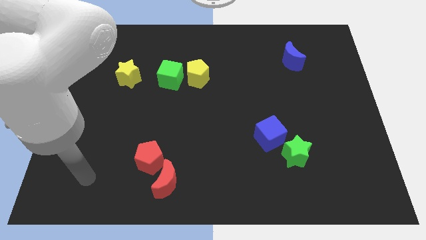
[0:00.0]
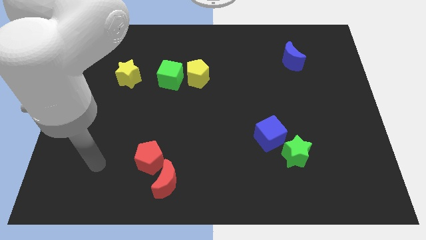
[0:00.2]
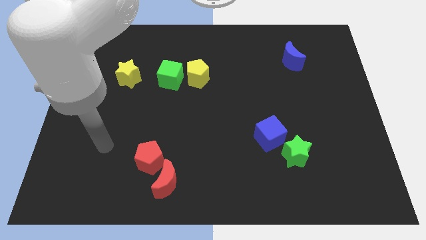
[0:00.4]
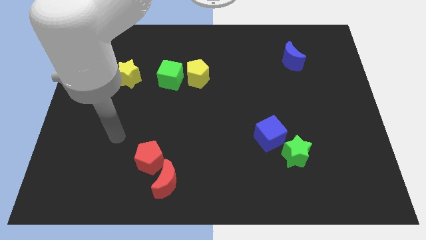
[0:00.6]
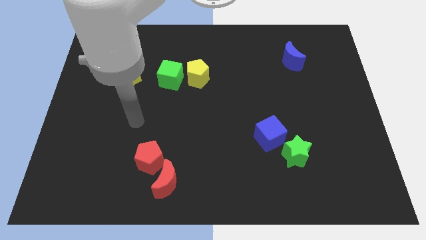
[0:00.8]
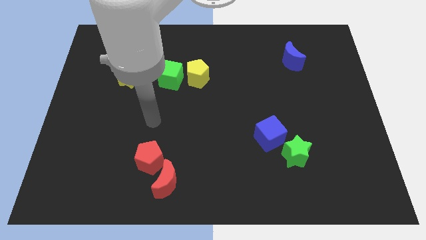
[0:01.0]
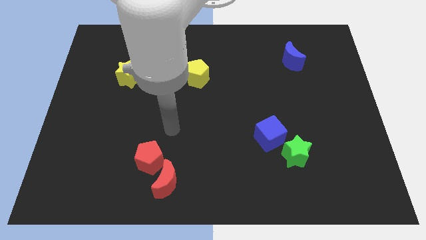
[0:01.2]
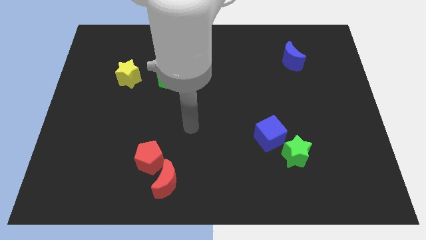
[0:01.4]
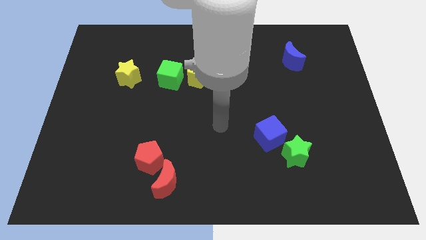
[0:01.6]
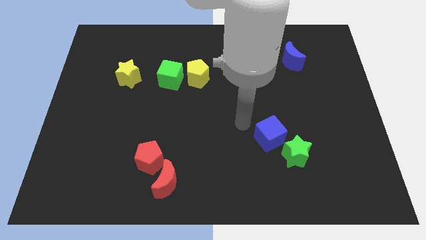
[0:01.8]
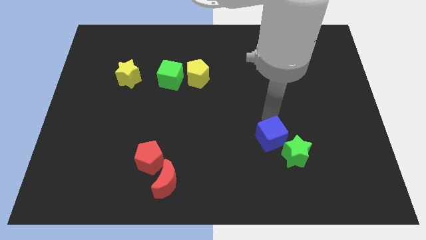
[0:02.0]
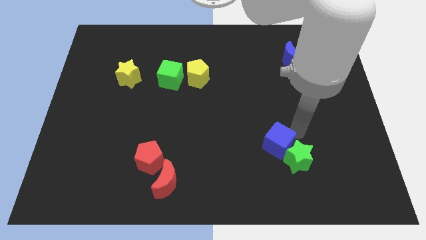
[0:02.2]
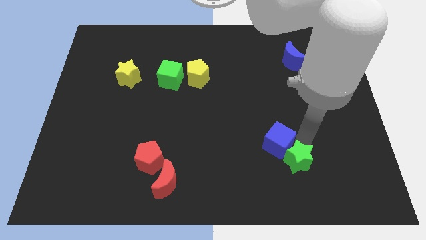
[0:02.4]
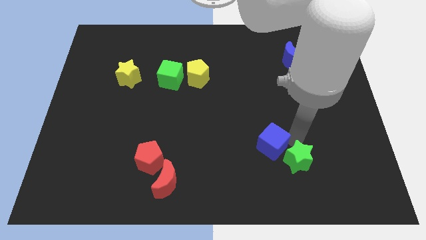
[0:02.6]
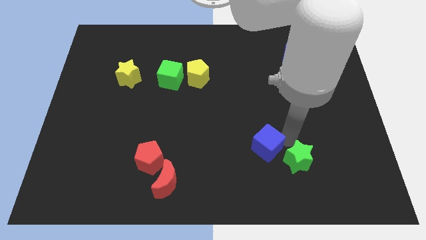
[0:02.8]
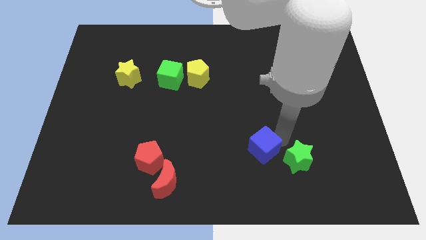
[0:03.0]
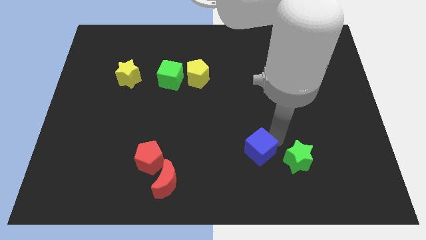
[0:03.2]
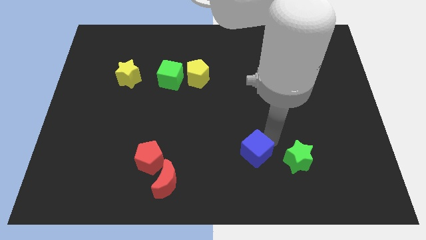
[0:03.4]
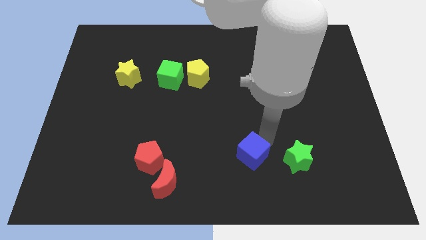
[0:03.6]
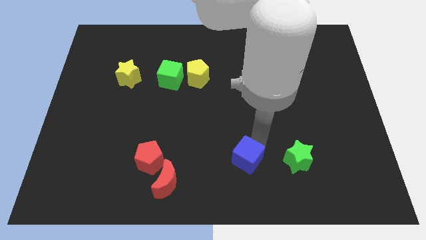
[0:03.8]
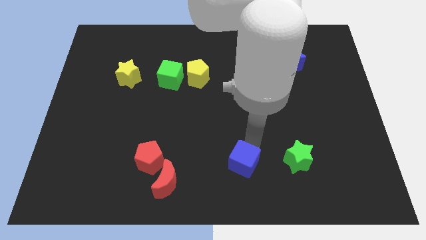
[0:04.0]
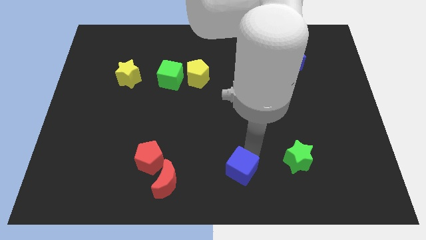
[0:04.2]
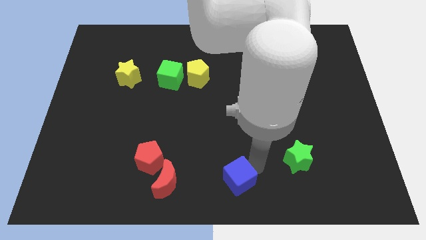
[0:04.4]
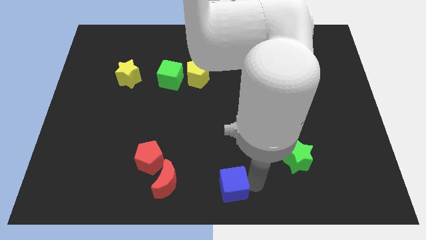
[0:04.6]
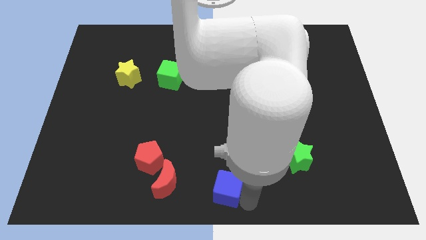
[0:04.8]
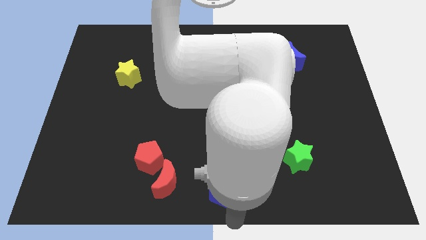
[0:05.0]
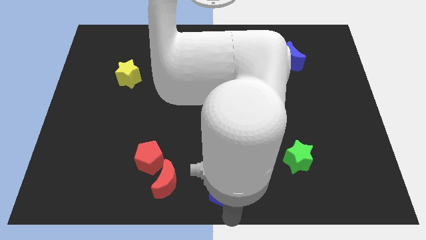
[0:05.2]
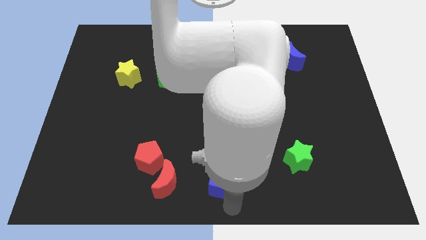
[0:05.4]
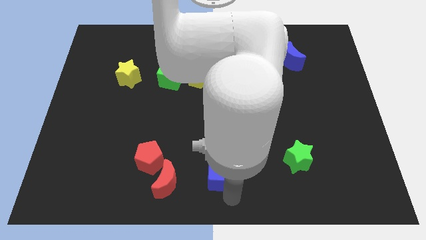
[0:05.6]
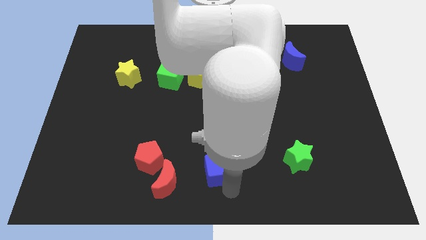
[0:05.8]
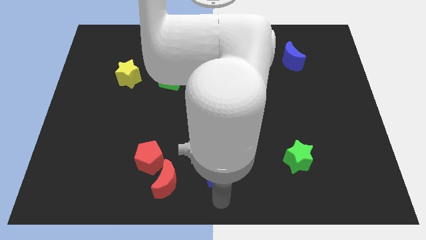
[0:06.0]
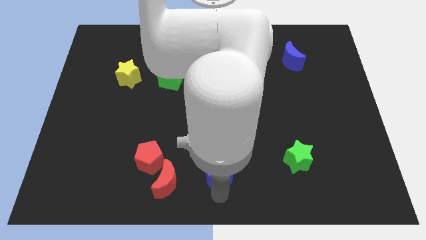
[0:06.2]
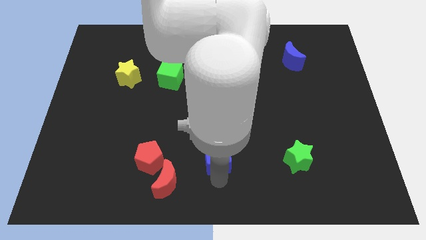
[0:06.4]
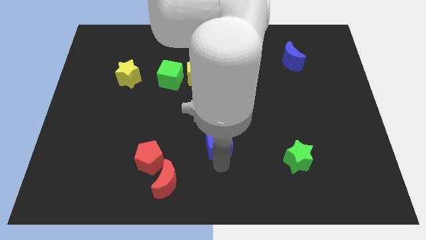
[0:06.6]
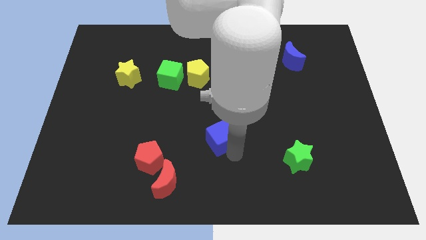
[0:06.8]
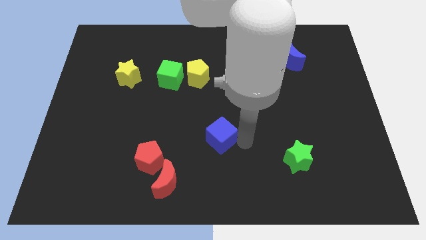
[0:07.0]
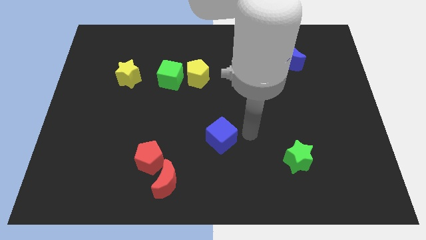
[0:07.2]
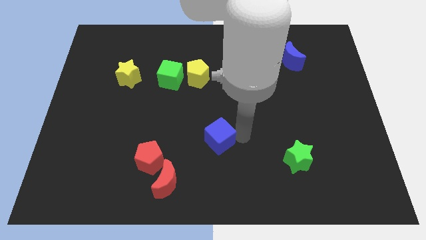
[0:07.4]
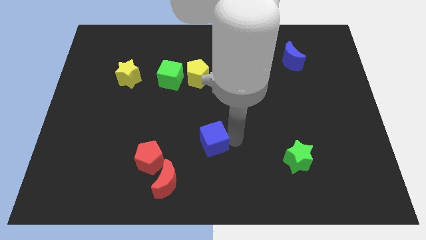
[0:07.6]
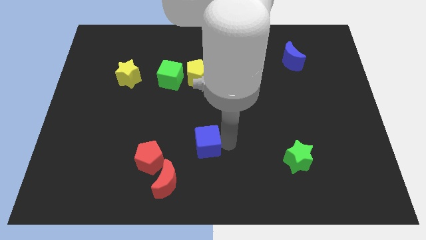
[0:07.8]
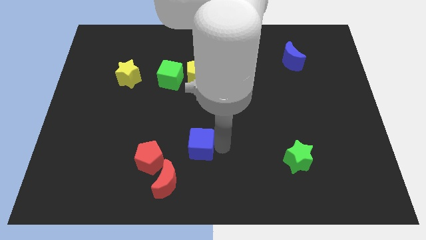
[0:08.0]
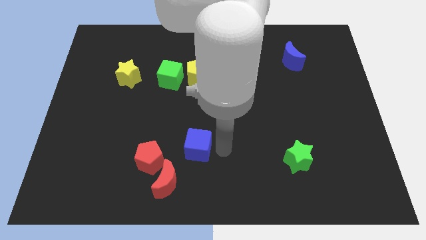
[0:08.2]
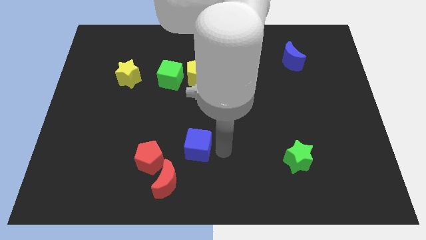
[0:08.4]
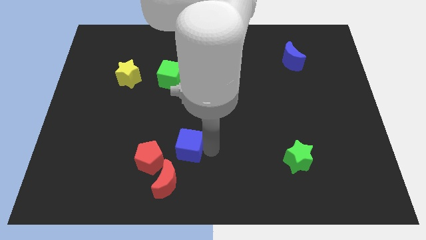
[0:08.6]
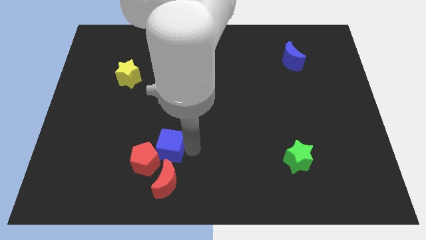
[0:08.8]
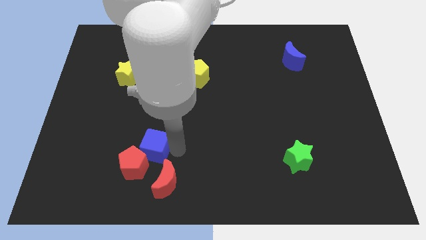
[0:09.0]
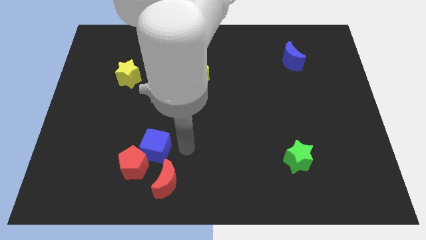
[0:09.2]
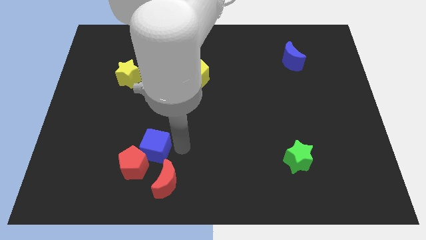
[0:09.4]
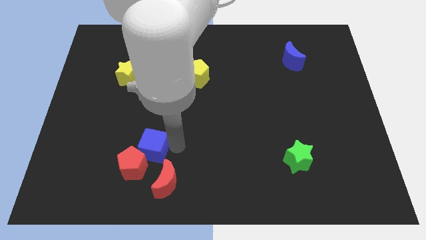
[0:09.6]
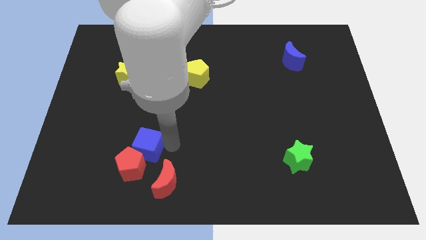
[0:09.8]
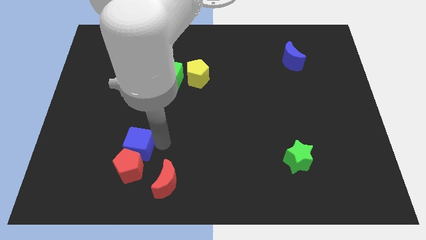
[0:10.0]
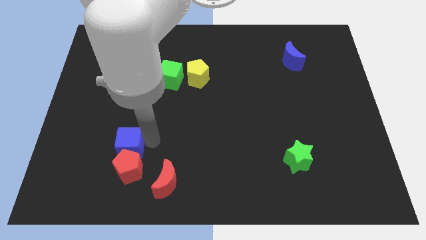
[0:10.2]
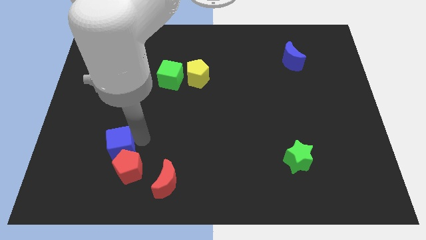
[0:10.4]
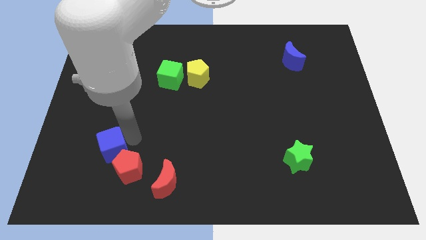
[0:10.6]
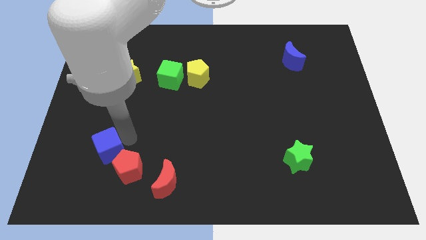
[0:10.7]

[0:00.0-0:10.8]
put the blue cube just left of the red pentagon

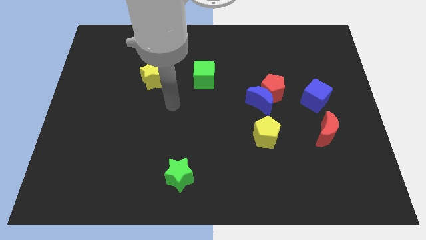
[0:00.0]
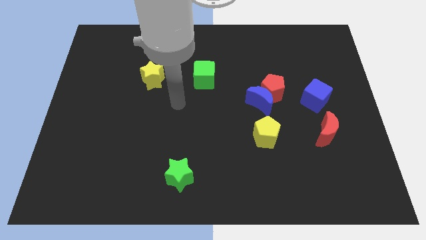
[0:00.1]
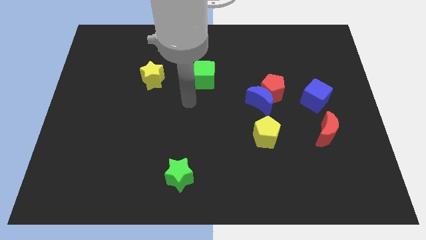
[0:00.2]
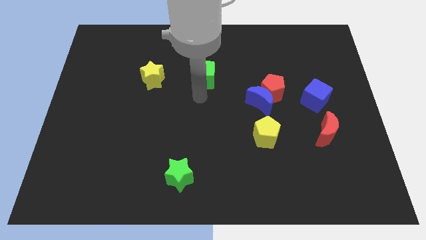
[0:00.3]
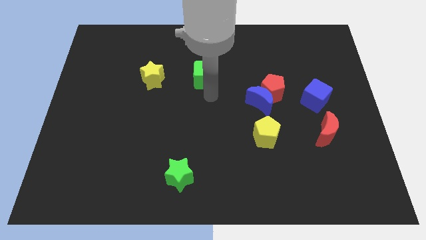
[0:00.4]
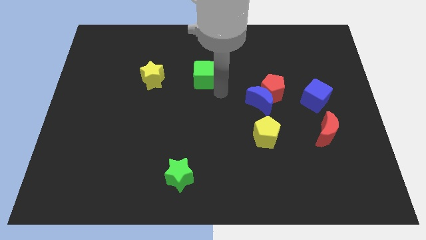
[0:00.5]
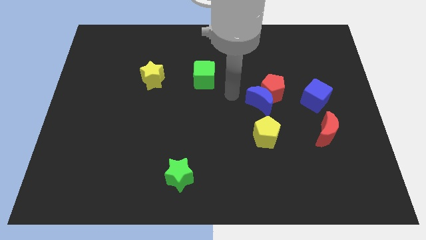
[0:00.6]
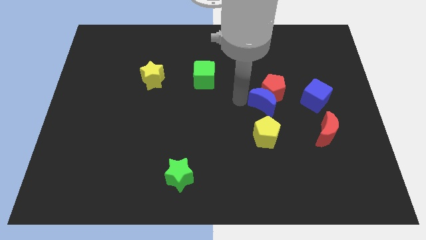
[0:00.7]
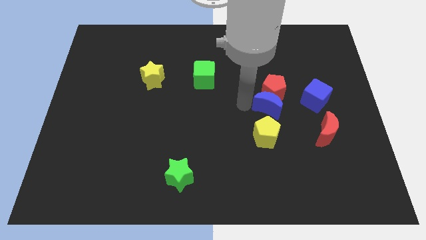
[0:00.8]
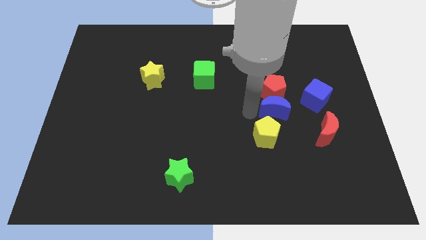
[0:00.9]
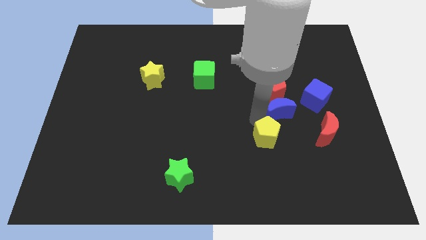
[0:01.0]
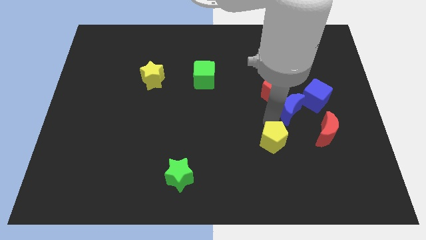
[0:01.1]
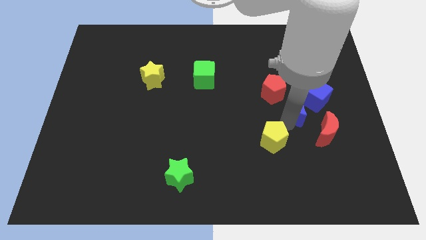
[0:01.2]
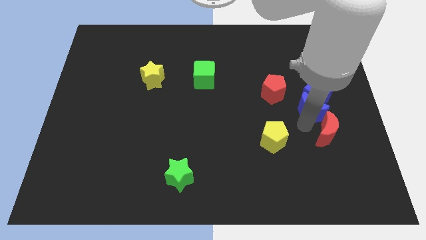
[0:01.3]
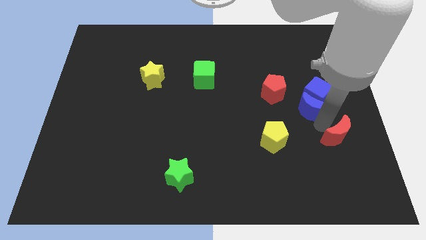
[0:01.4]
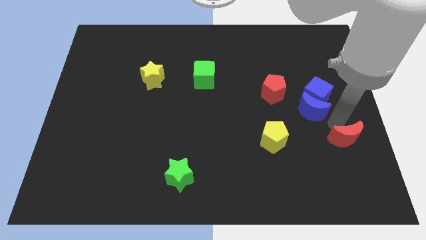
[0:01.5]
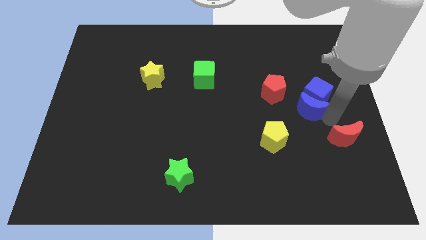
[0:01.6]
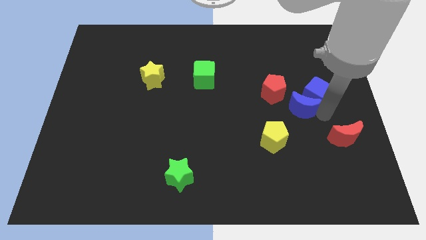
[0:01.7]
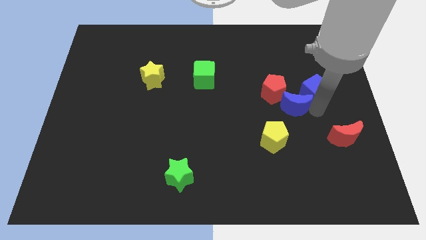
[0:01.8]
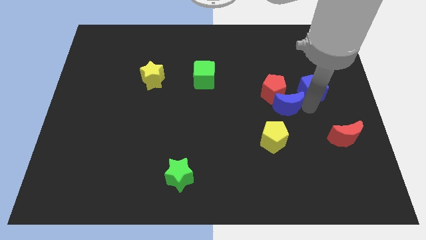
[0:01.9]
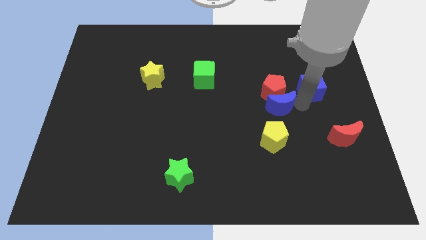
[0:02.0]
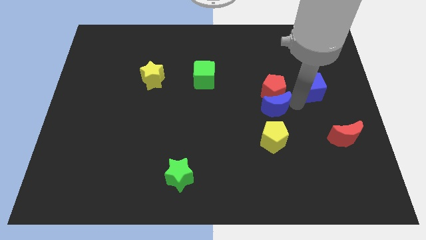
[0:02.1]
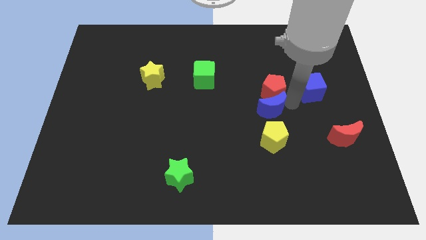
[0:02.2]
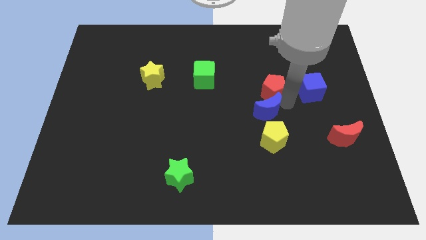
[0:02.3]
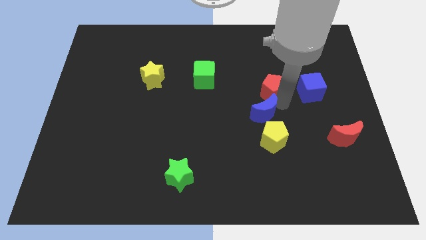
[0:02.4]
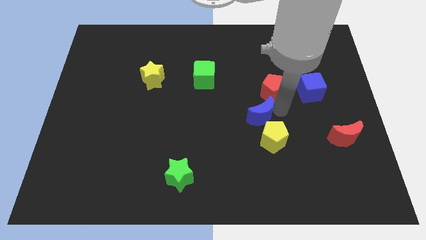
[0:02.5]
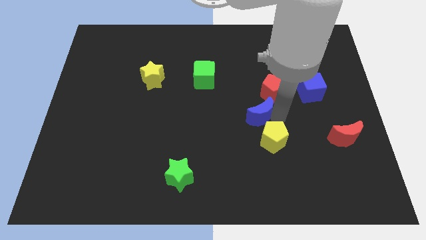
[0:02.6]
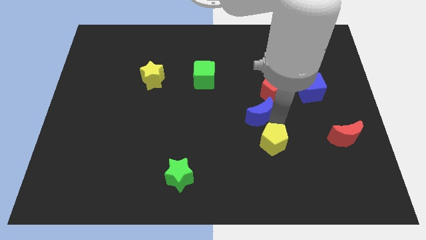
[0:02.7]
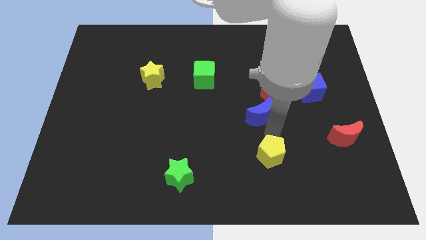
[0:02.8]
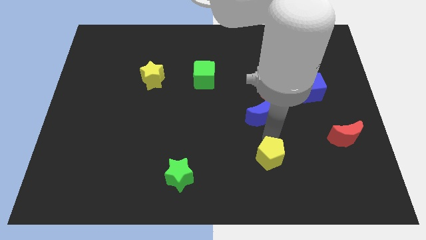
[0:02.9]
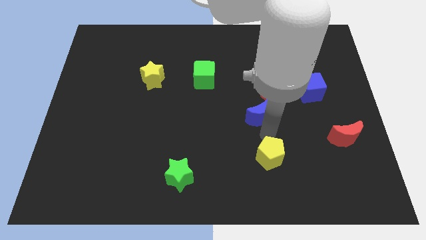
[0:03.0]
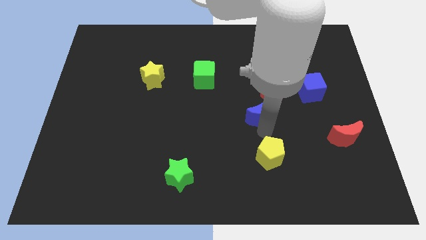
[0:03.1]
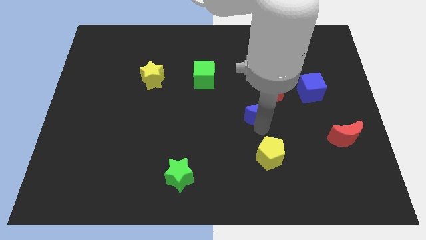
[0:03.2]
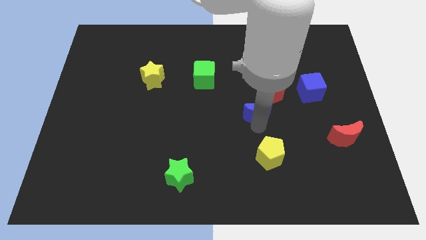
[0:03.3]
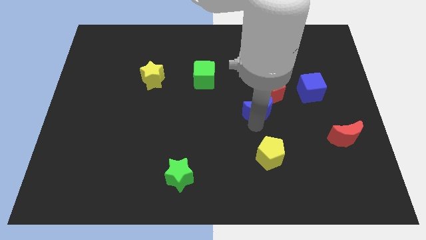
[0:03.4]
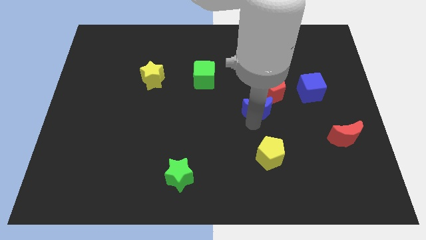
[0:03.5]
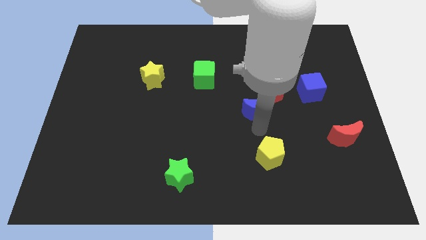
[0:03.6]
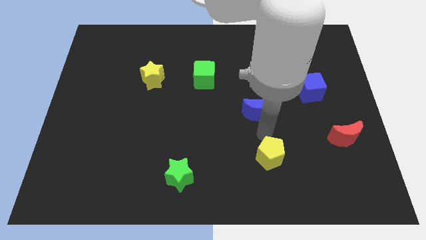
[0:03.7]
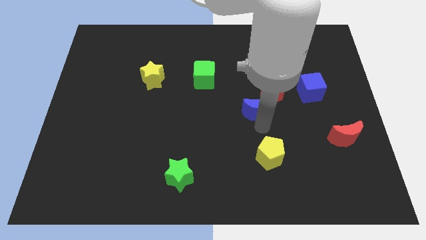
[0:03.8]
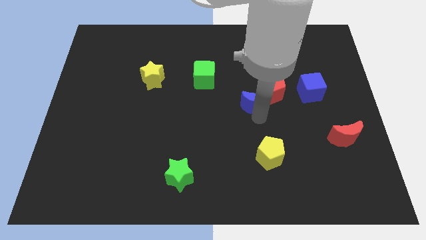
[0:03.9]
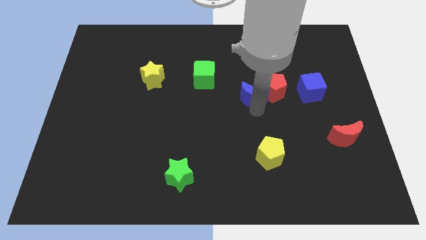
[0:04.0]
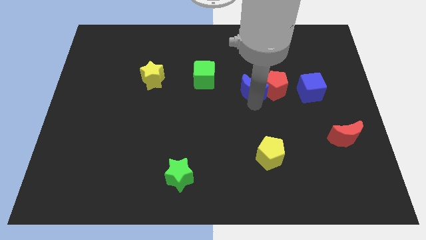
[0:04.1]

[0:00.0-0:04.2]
push the blue moon to the right side of the green cube
